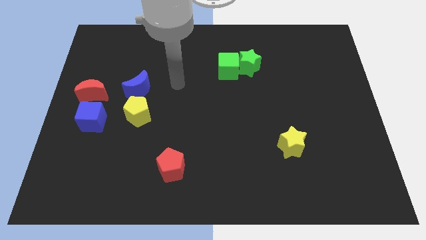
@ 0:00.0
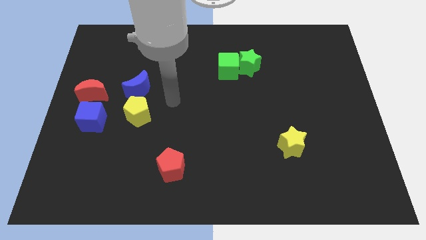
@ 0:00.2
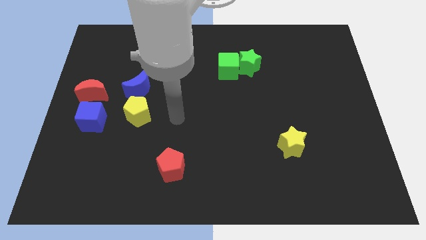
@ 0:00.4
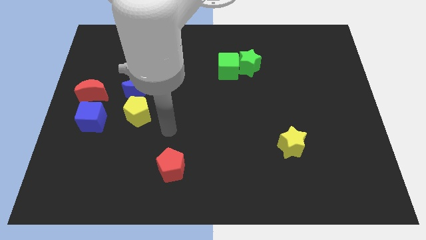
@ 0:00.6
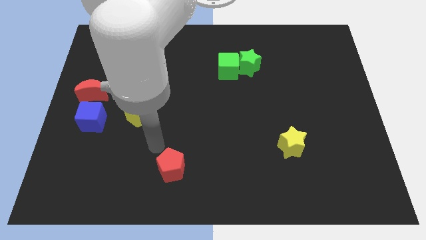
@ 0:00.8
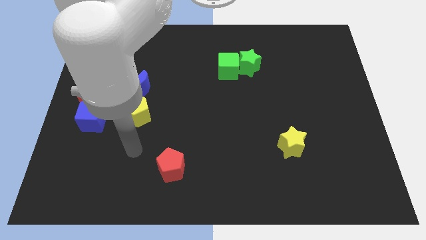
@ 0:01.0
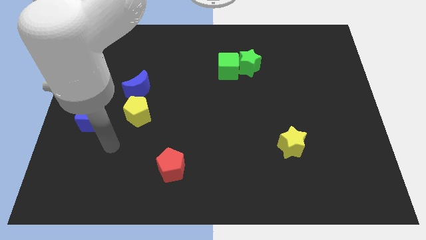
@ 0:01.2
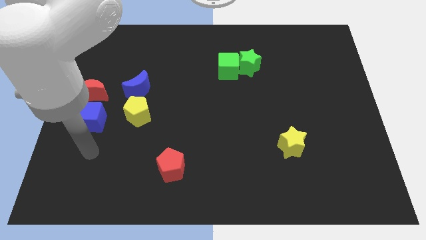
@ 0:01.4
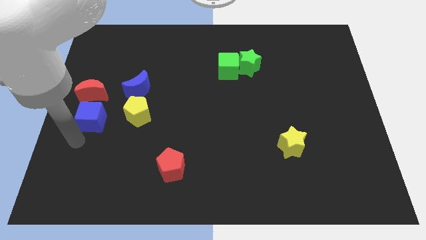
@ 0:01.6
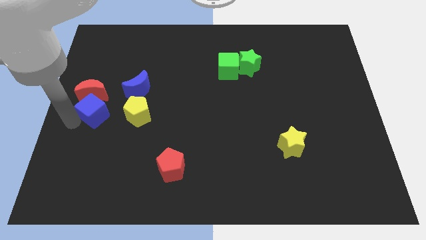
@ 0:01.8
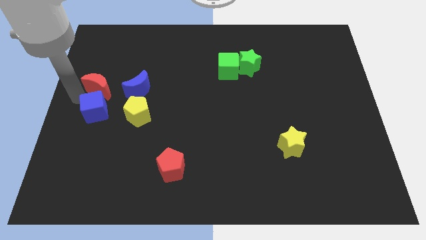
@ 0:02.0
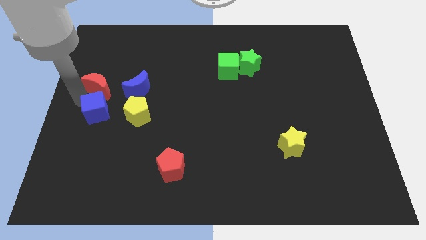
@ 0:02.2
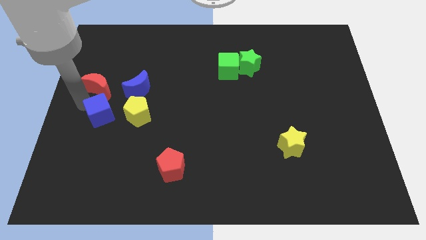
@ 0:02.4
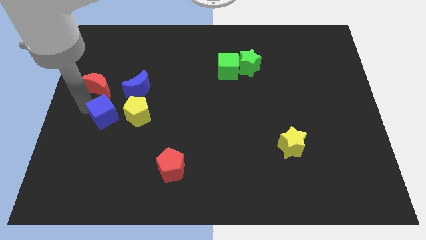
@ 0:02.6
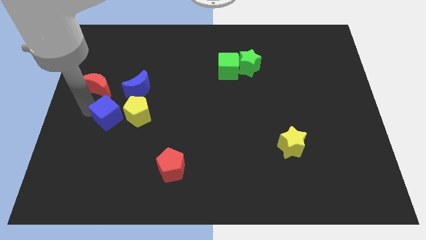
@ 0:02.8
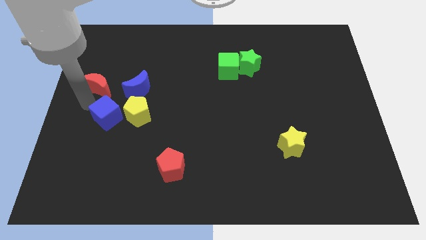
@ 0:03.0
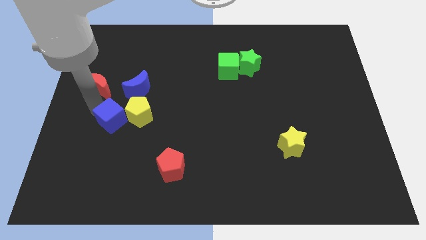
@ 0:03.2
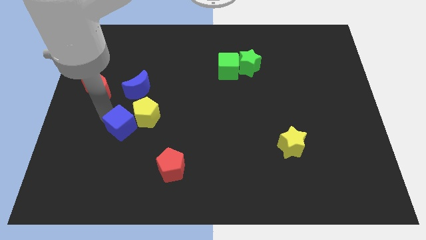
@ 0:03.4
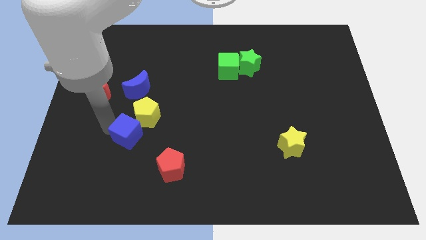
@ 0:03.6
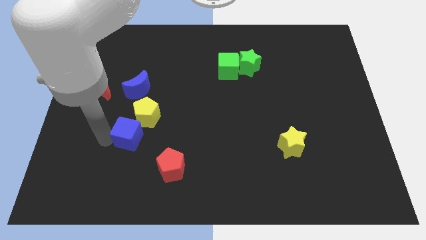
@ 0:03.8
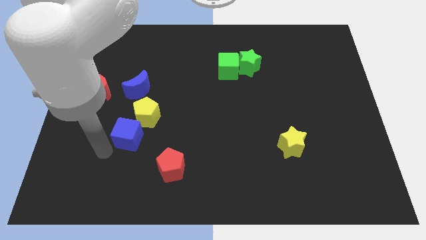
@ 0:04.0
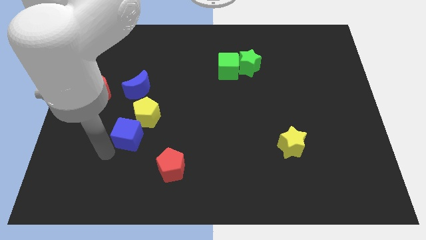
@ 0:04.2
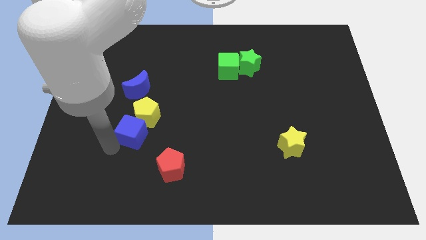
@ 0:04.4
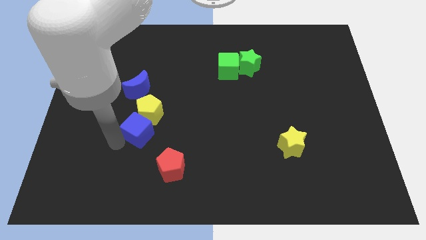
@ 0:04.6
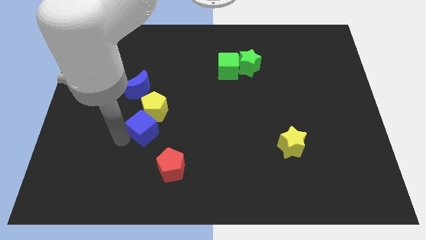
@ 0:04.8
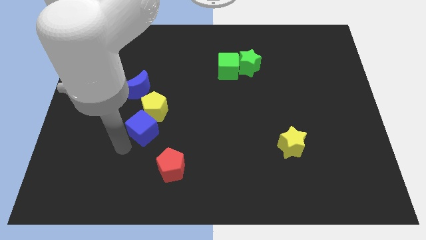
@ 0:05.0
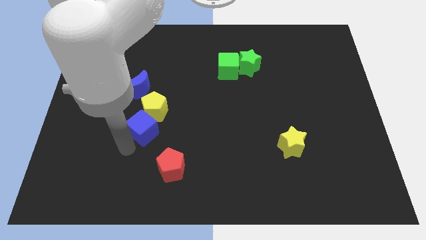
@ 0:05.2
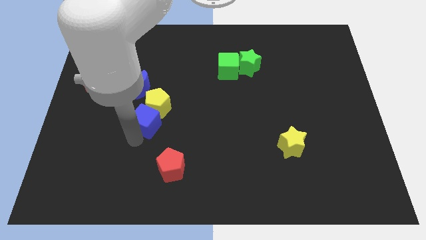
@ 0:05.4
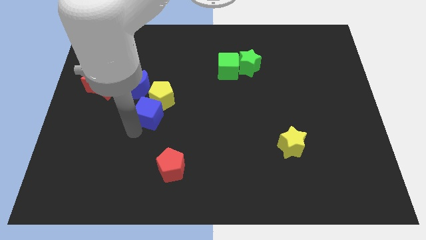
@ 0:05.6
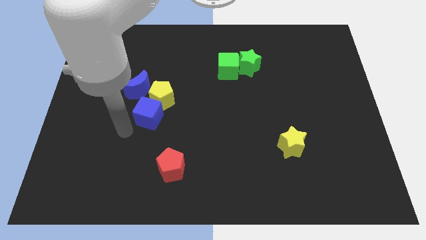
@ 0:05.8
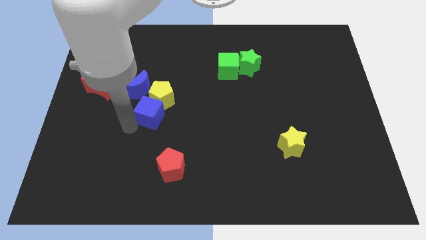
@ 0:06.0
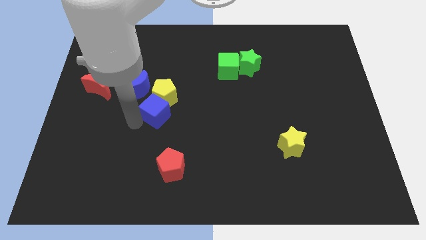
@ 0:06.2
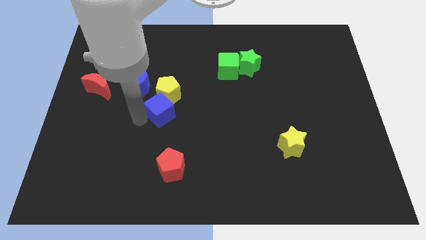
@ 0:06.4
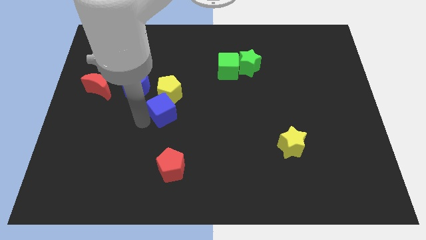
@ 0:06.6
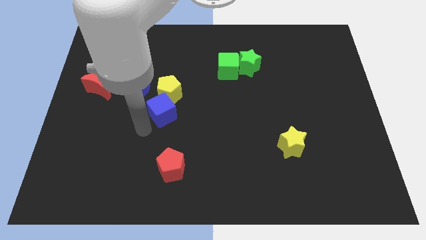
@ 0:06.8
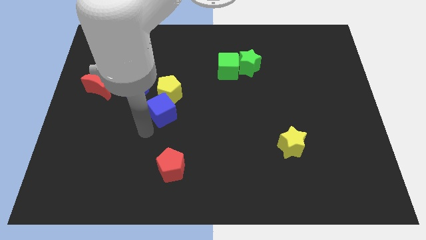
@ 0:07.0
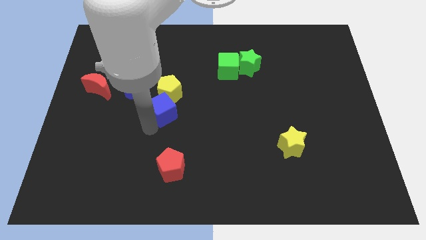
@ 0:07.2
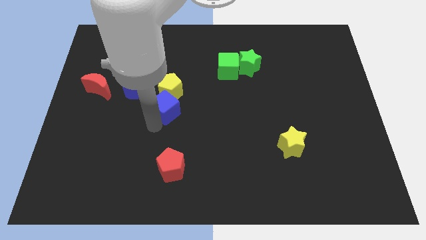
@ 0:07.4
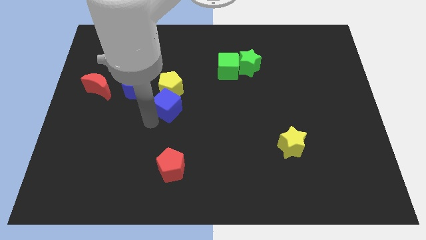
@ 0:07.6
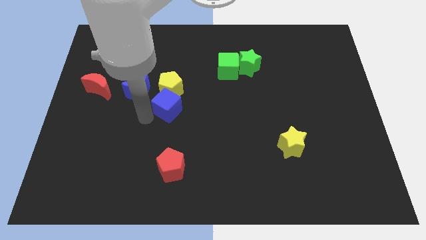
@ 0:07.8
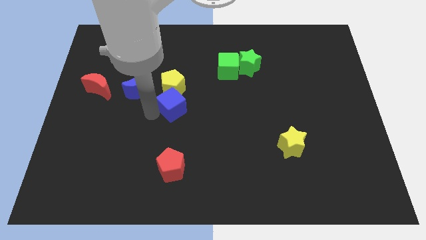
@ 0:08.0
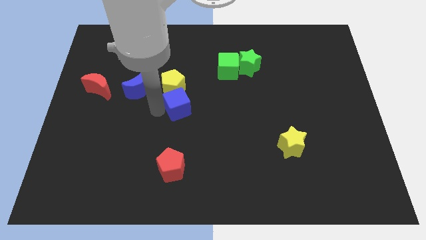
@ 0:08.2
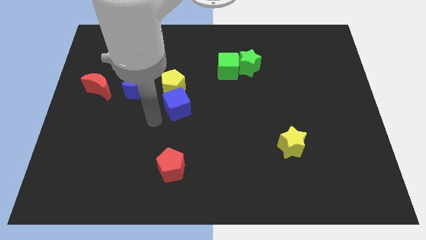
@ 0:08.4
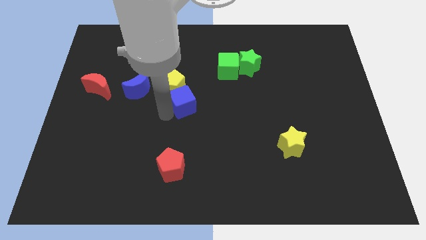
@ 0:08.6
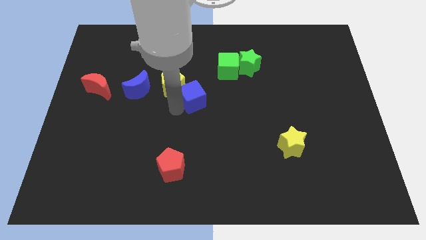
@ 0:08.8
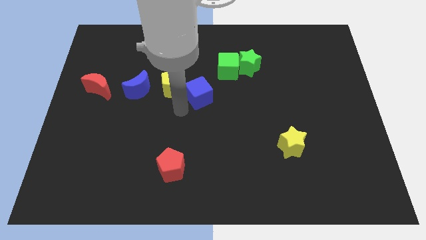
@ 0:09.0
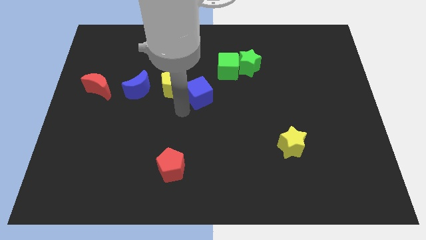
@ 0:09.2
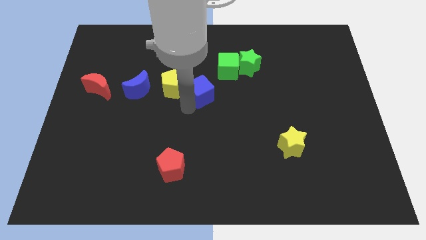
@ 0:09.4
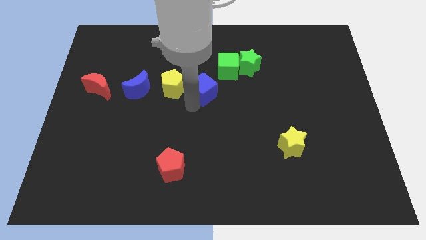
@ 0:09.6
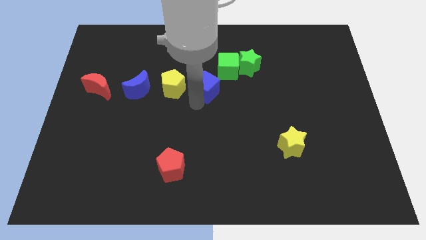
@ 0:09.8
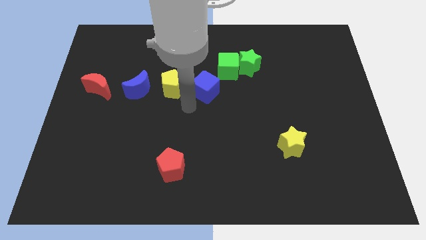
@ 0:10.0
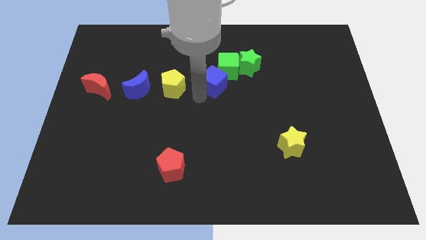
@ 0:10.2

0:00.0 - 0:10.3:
slide the blue cube close to the green cube

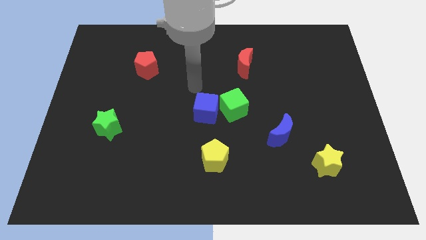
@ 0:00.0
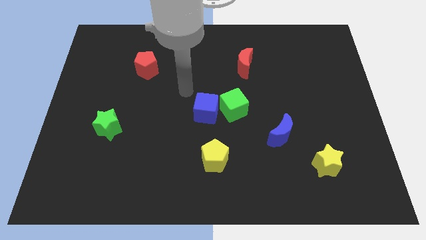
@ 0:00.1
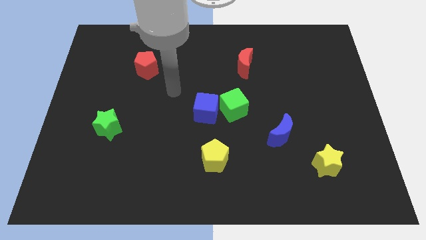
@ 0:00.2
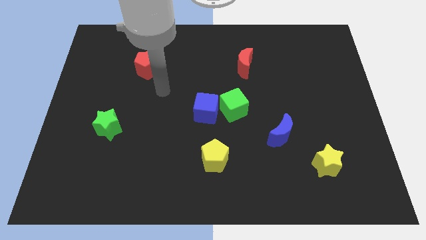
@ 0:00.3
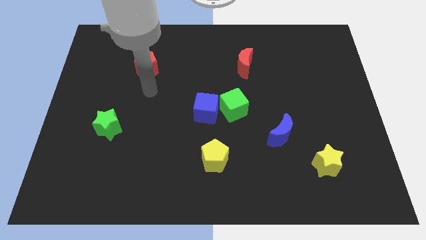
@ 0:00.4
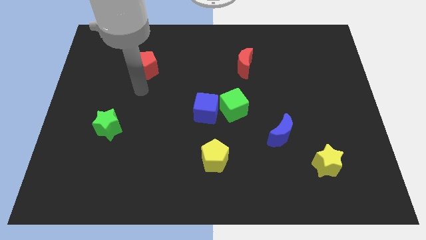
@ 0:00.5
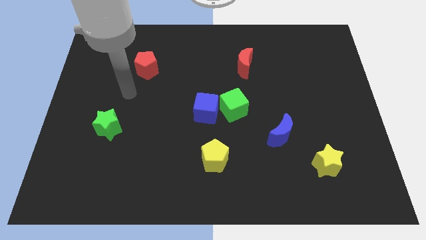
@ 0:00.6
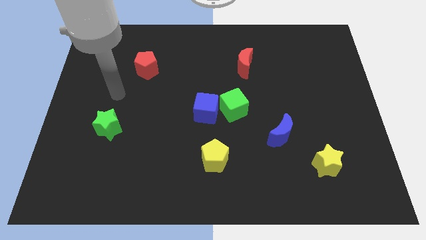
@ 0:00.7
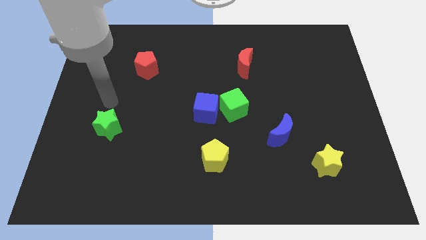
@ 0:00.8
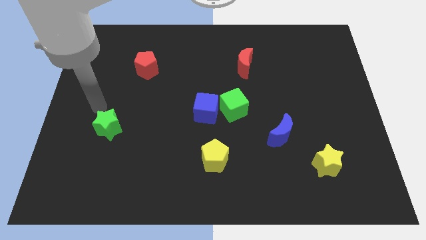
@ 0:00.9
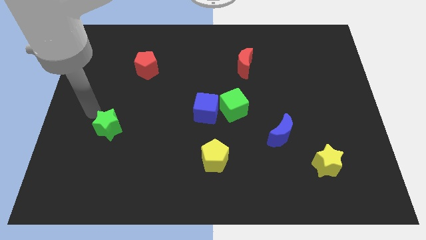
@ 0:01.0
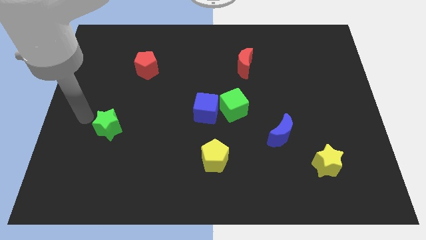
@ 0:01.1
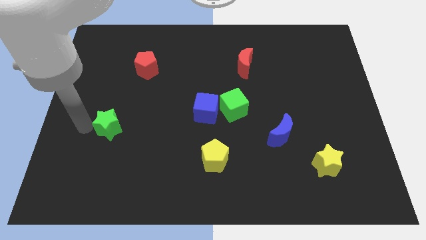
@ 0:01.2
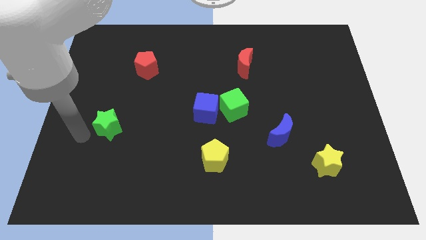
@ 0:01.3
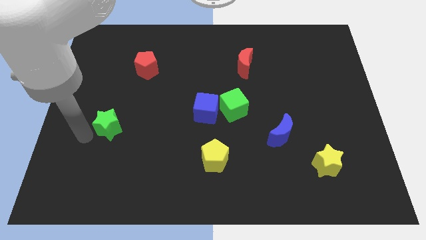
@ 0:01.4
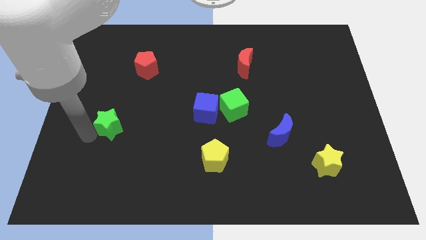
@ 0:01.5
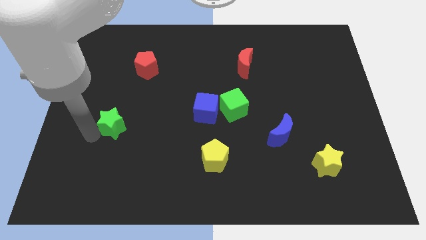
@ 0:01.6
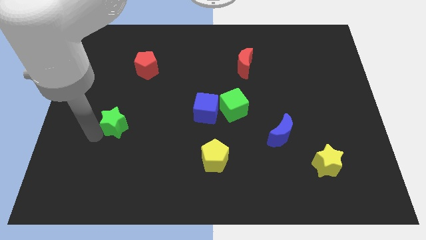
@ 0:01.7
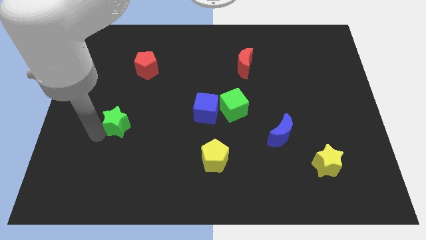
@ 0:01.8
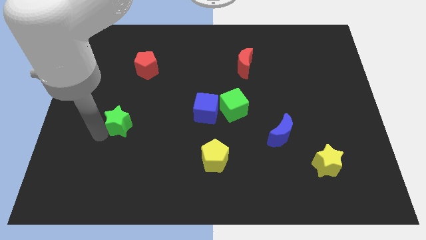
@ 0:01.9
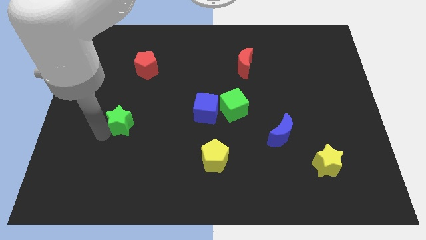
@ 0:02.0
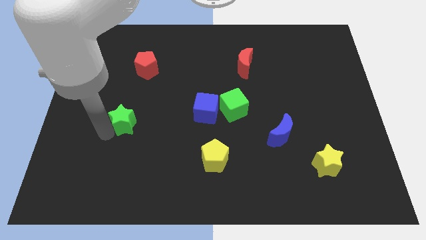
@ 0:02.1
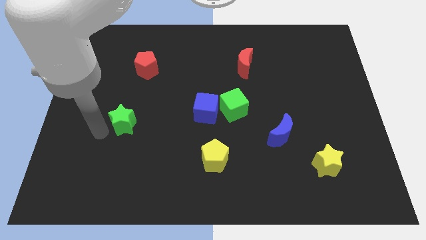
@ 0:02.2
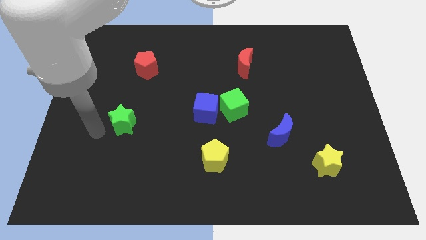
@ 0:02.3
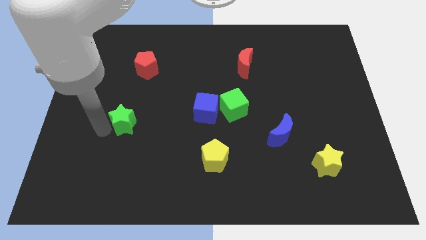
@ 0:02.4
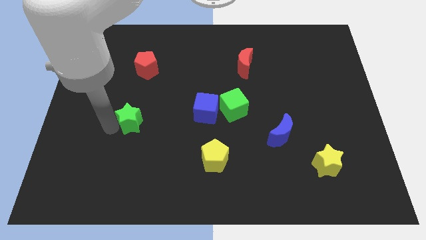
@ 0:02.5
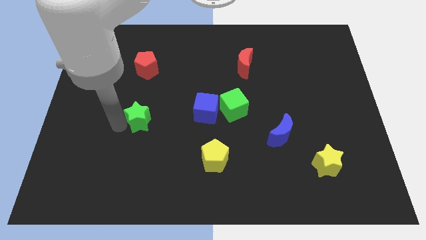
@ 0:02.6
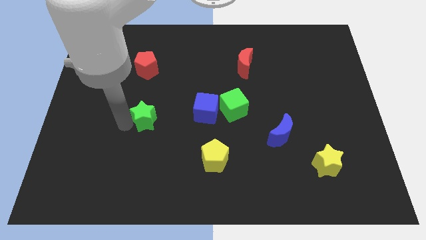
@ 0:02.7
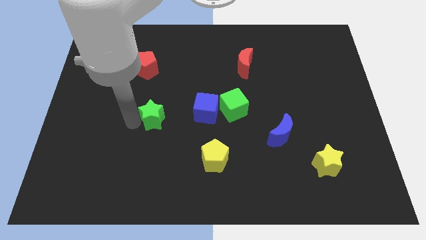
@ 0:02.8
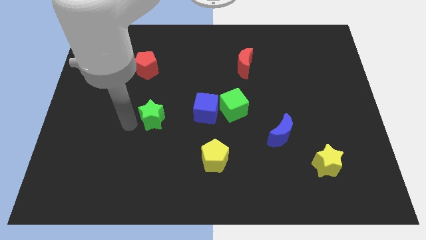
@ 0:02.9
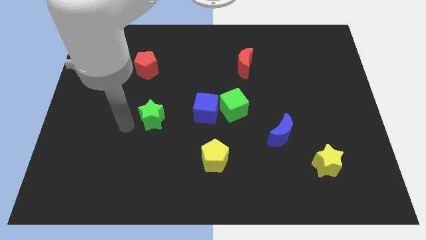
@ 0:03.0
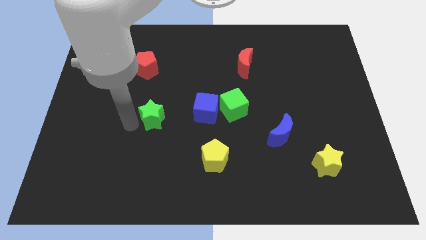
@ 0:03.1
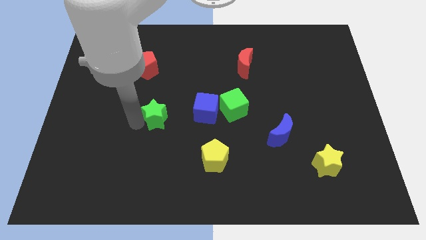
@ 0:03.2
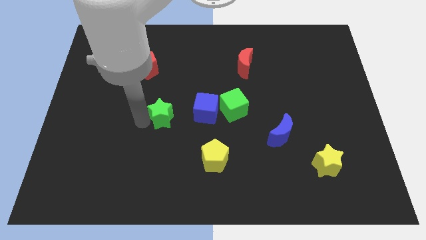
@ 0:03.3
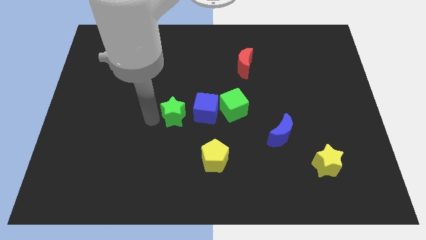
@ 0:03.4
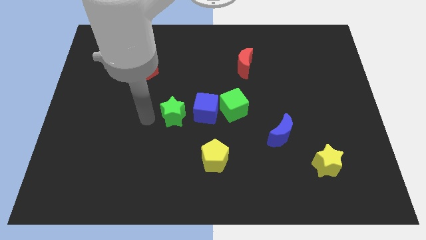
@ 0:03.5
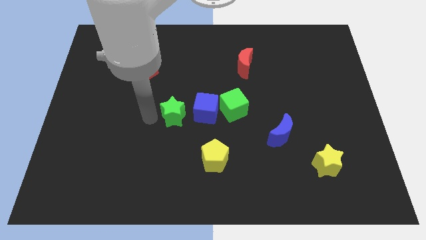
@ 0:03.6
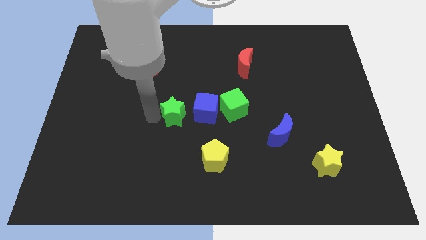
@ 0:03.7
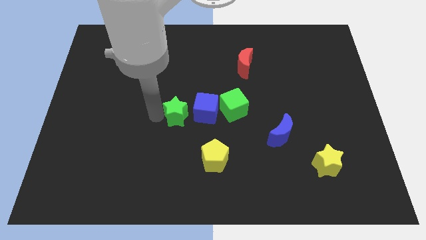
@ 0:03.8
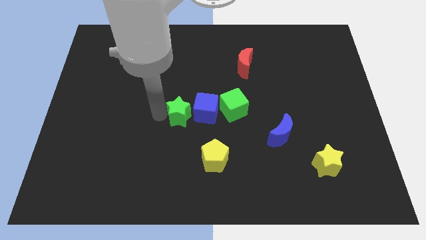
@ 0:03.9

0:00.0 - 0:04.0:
slide the green star to the blue cube
